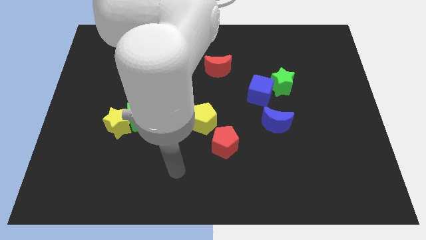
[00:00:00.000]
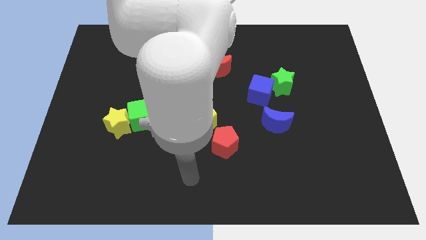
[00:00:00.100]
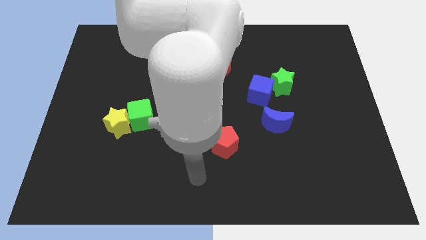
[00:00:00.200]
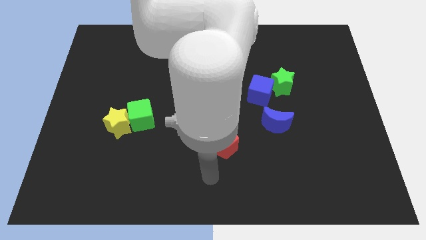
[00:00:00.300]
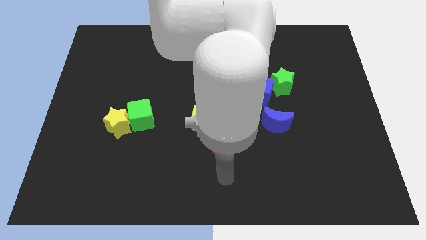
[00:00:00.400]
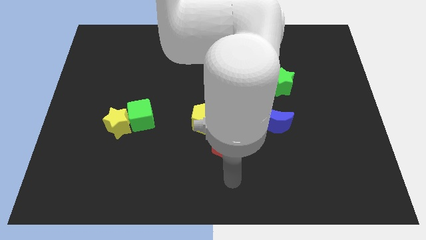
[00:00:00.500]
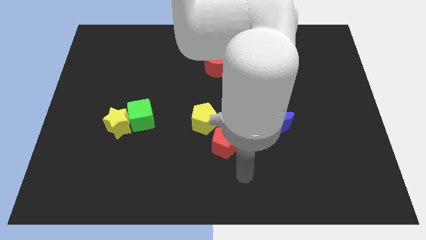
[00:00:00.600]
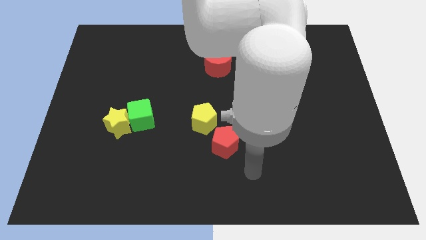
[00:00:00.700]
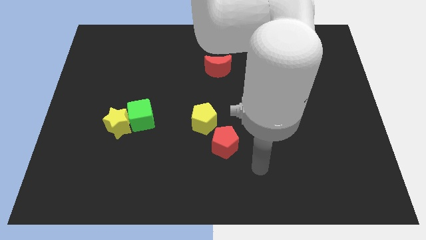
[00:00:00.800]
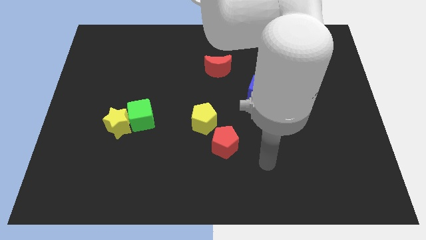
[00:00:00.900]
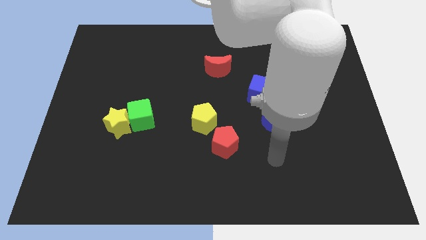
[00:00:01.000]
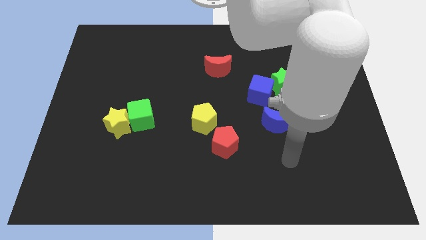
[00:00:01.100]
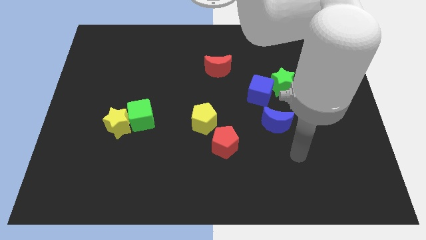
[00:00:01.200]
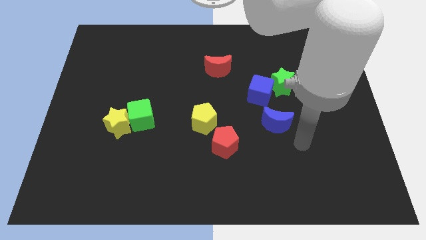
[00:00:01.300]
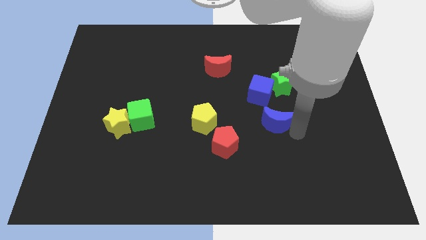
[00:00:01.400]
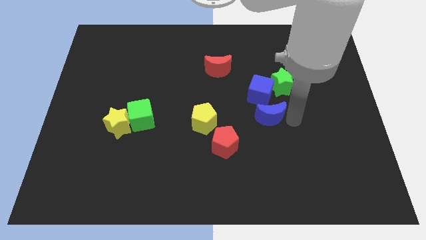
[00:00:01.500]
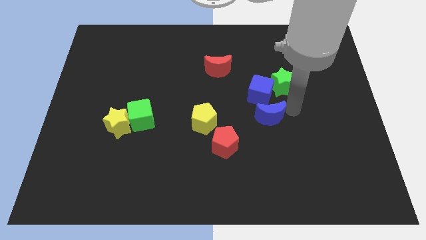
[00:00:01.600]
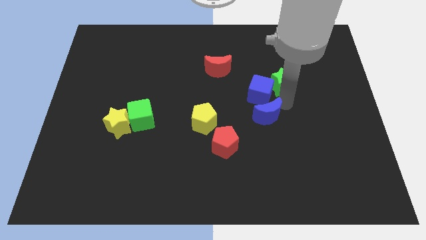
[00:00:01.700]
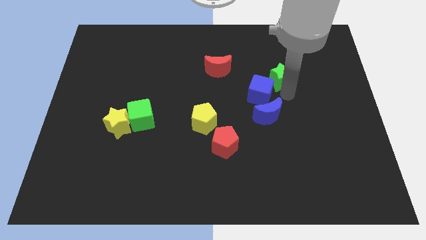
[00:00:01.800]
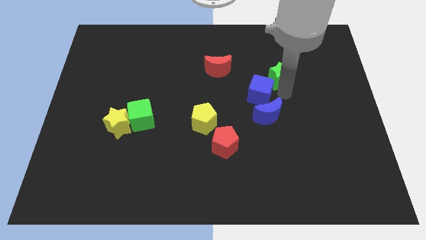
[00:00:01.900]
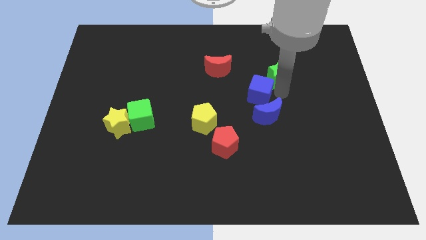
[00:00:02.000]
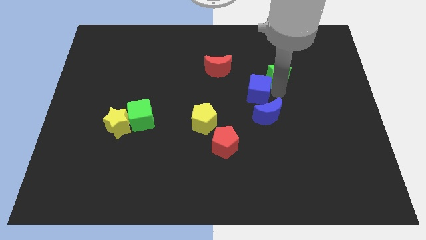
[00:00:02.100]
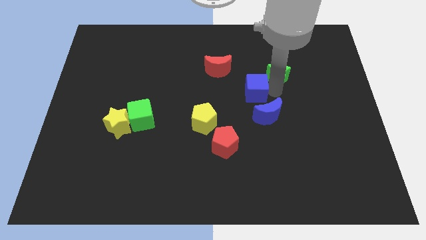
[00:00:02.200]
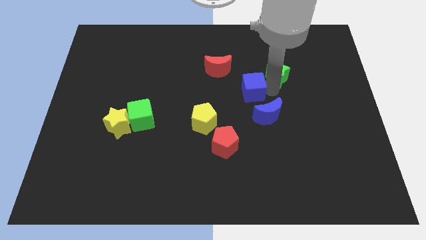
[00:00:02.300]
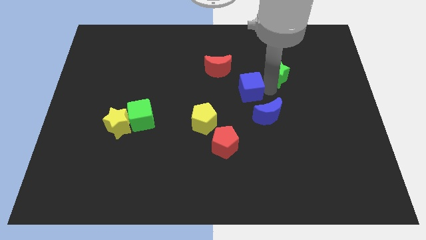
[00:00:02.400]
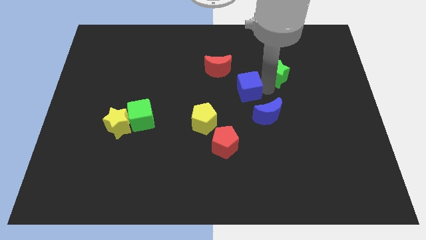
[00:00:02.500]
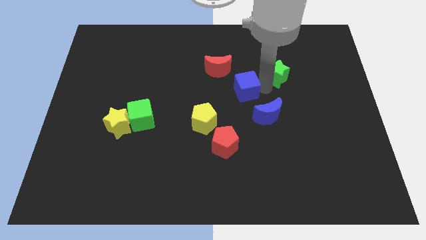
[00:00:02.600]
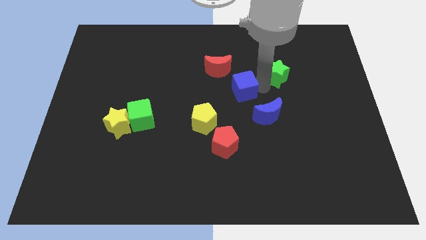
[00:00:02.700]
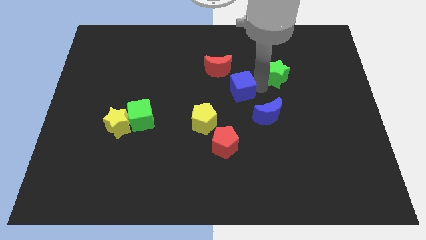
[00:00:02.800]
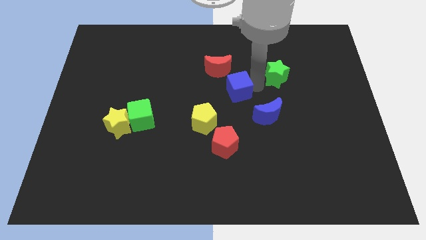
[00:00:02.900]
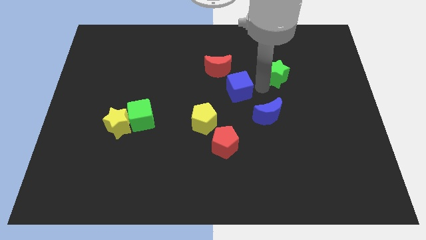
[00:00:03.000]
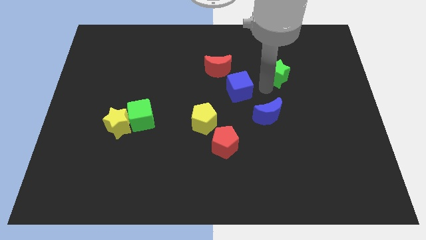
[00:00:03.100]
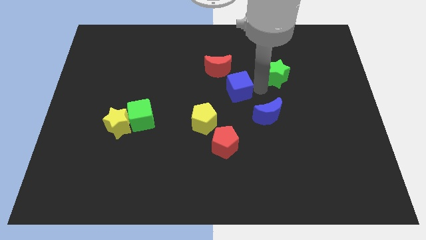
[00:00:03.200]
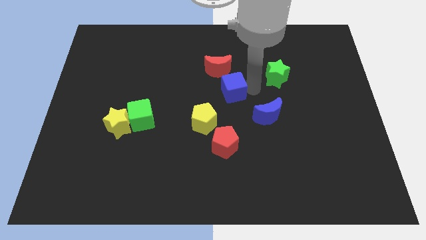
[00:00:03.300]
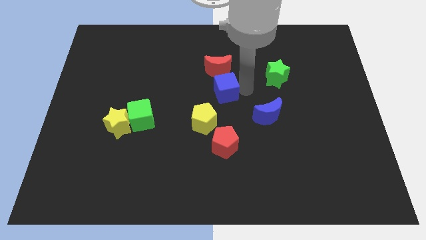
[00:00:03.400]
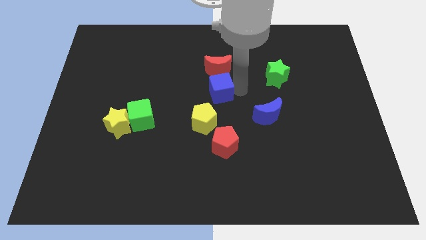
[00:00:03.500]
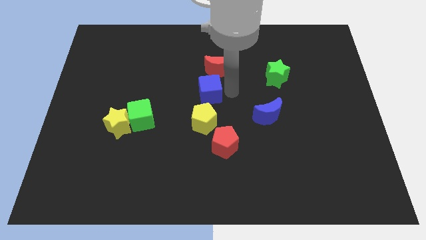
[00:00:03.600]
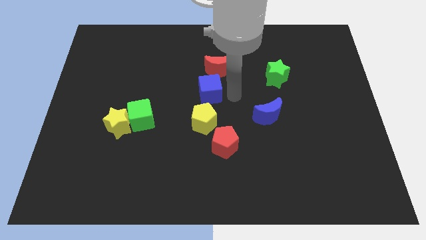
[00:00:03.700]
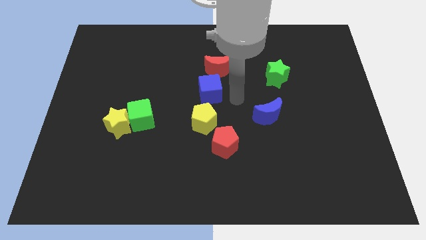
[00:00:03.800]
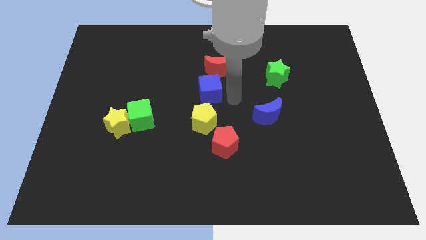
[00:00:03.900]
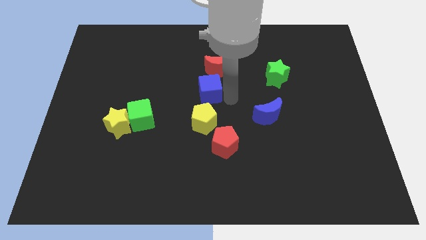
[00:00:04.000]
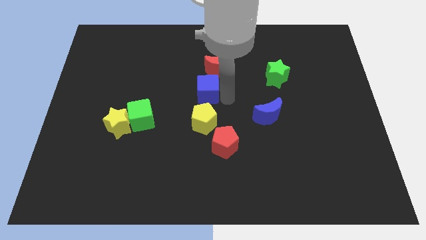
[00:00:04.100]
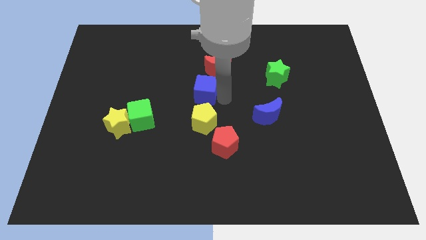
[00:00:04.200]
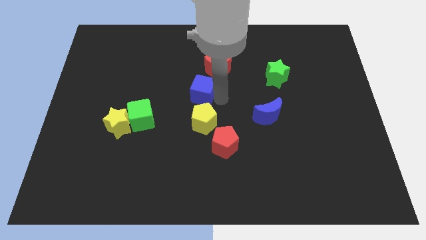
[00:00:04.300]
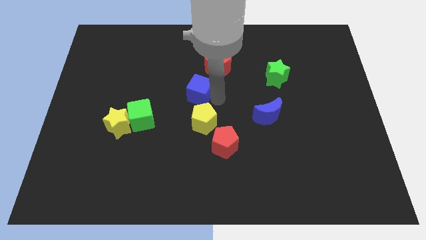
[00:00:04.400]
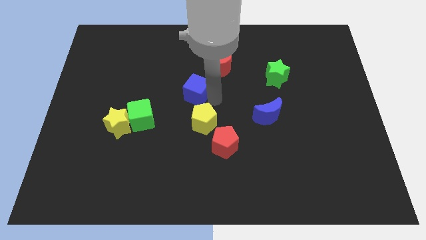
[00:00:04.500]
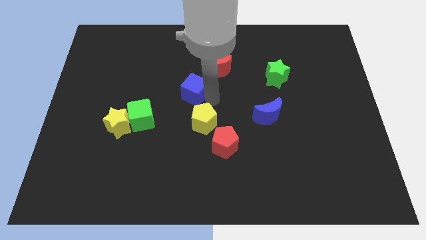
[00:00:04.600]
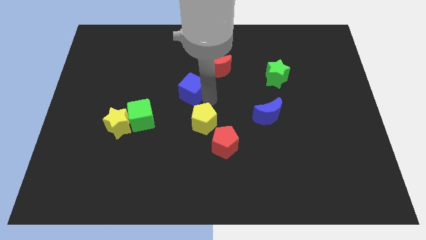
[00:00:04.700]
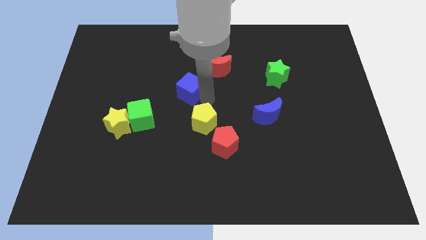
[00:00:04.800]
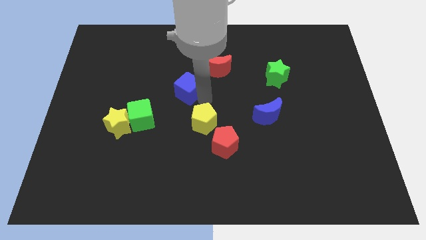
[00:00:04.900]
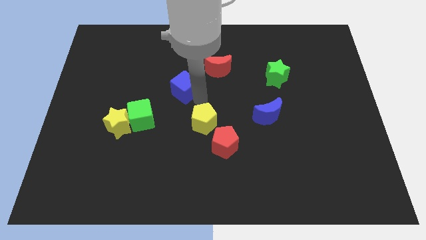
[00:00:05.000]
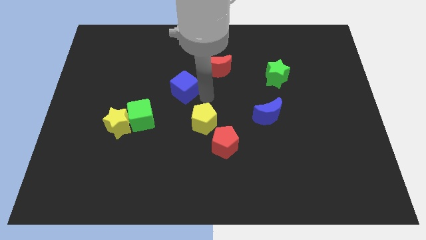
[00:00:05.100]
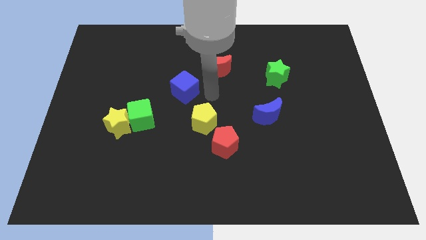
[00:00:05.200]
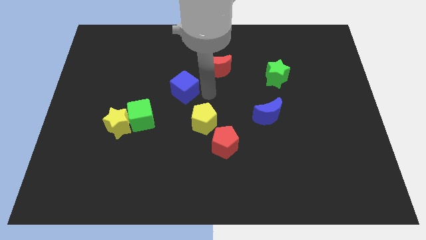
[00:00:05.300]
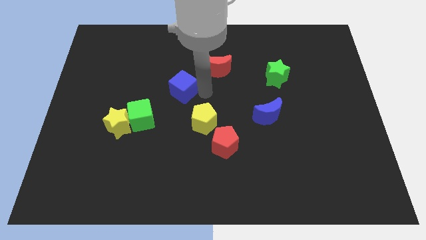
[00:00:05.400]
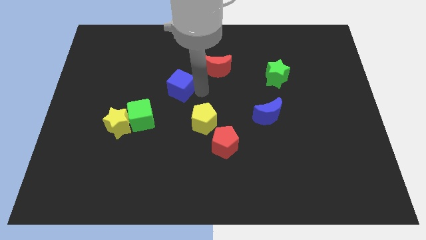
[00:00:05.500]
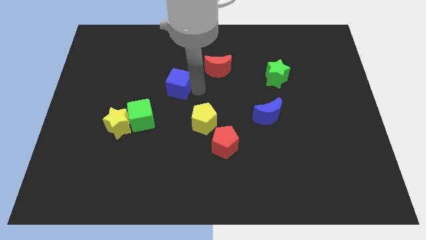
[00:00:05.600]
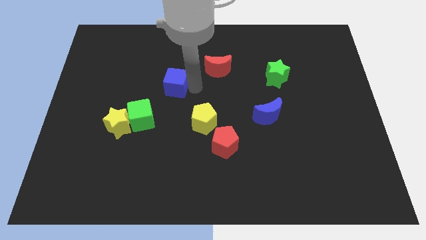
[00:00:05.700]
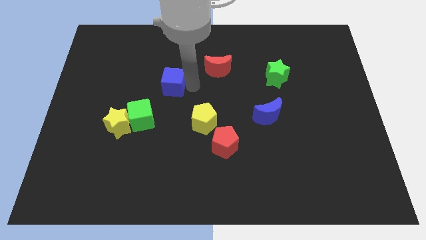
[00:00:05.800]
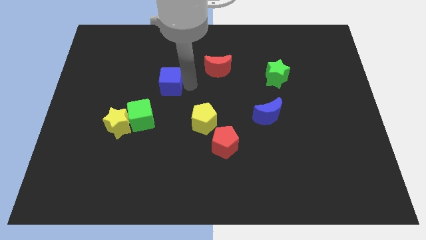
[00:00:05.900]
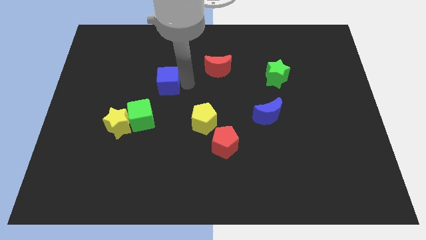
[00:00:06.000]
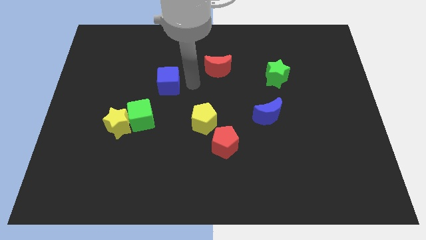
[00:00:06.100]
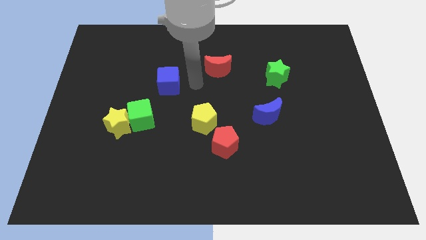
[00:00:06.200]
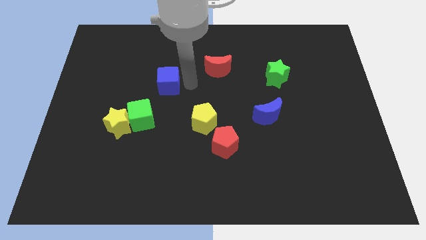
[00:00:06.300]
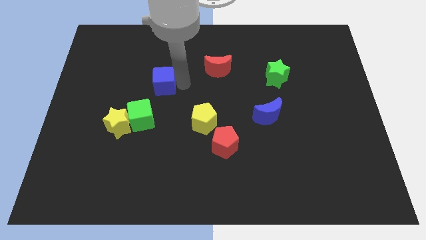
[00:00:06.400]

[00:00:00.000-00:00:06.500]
slide the blue cube to the top of the green cube
